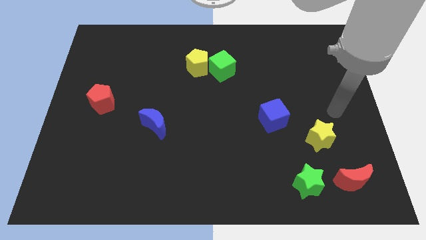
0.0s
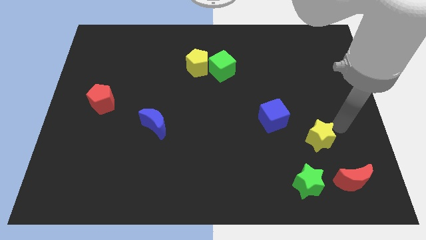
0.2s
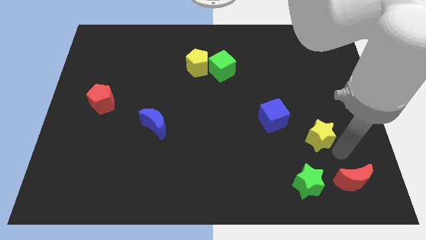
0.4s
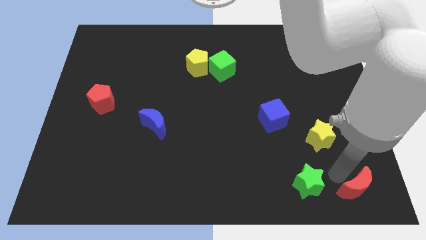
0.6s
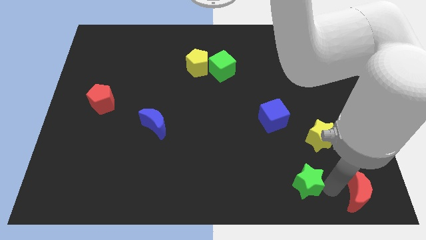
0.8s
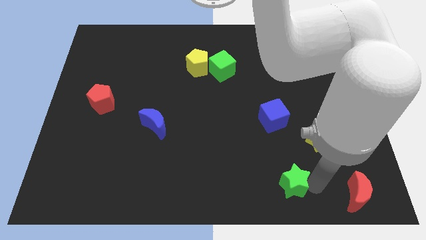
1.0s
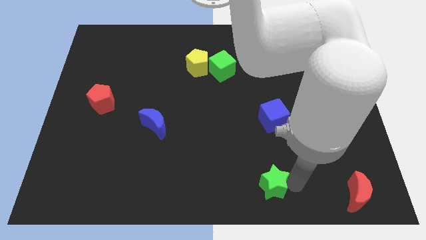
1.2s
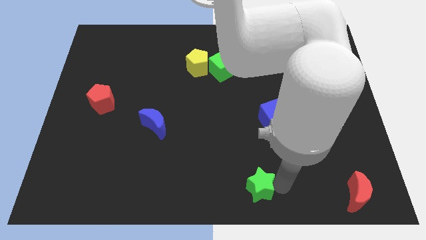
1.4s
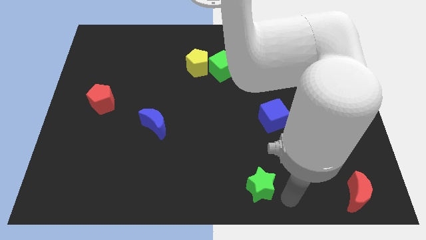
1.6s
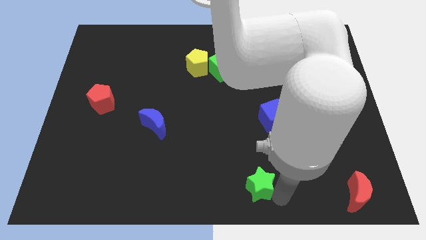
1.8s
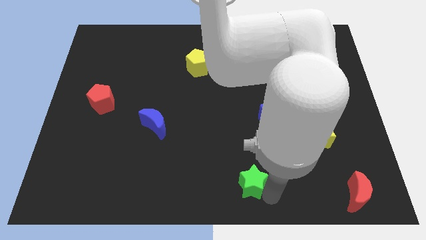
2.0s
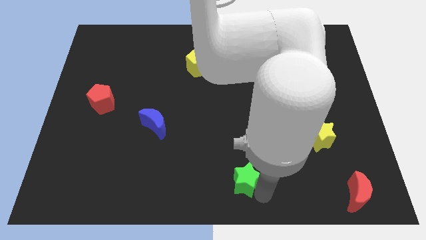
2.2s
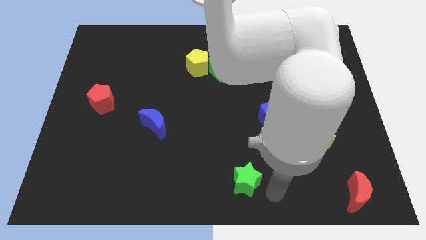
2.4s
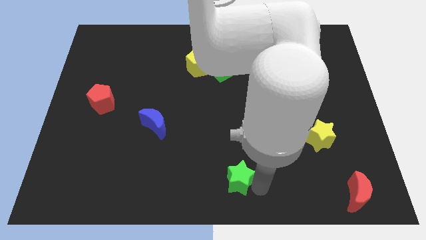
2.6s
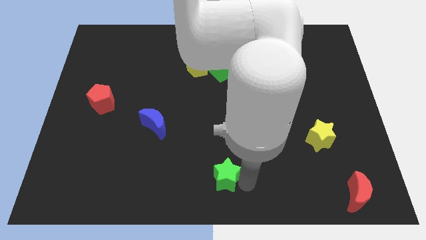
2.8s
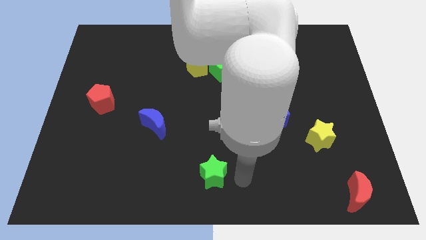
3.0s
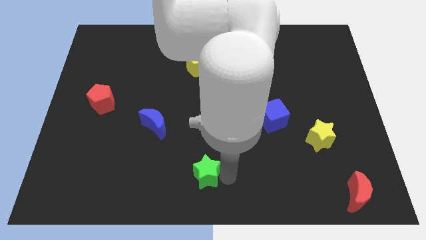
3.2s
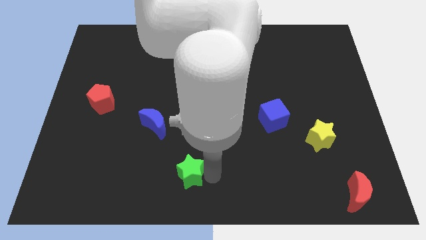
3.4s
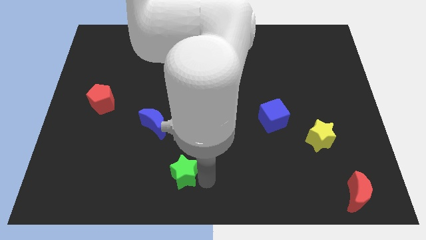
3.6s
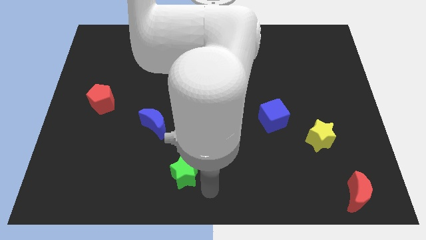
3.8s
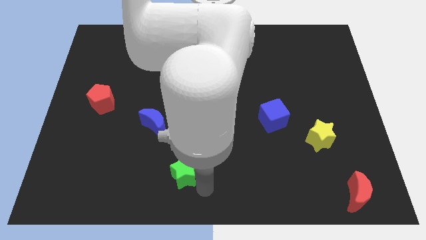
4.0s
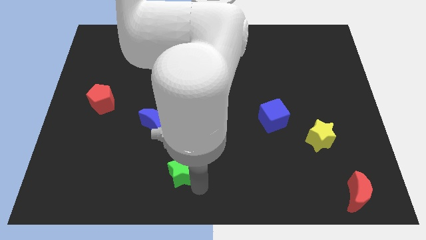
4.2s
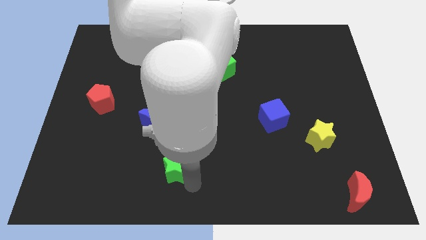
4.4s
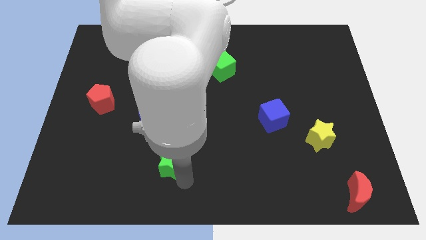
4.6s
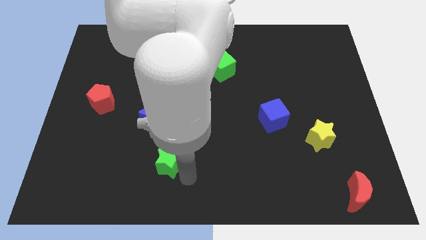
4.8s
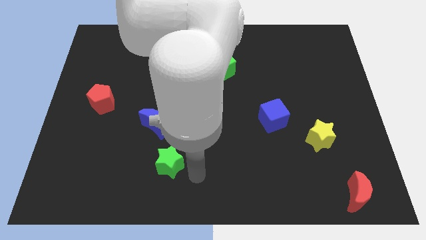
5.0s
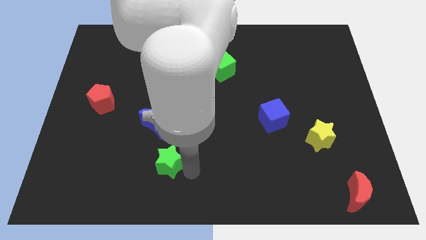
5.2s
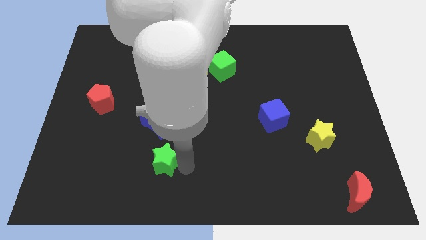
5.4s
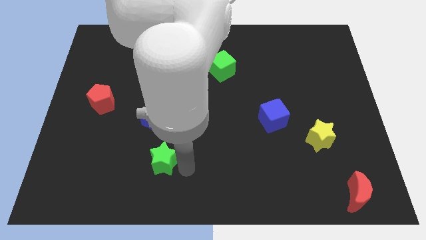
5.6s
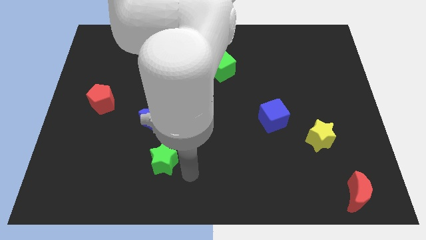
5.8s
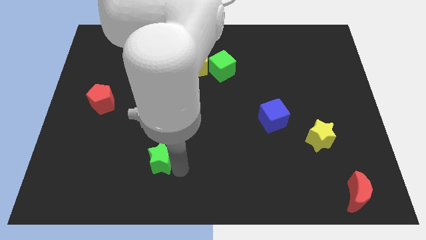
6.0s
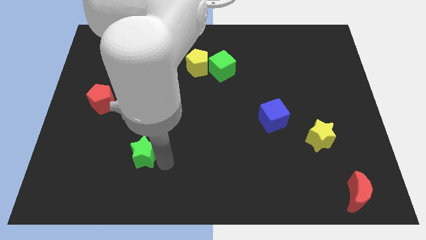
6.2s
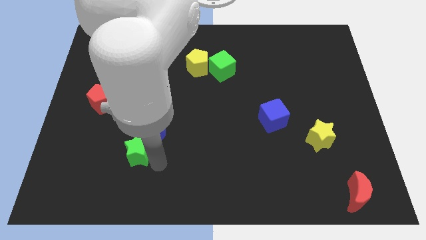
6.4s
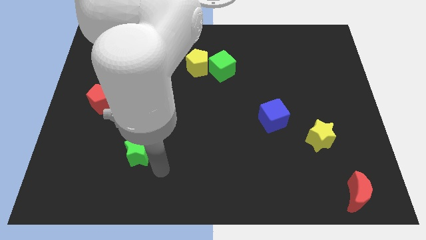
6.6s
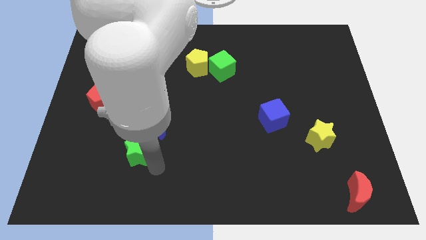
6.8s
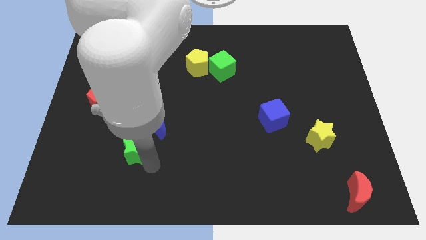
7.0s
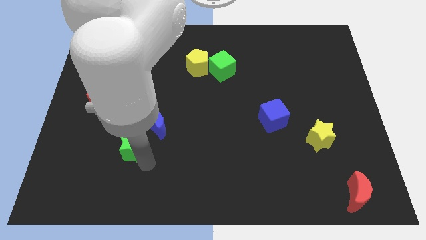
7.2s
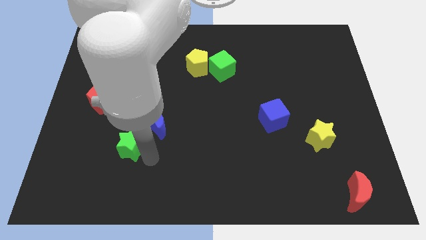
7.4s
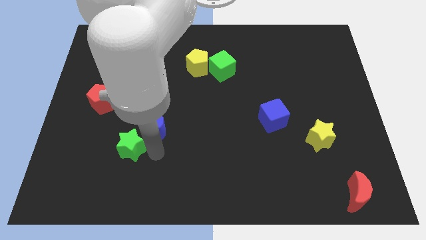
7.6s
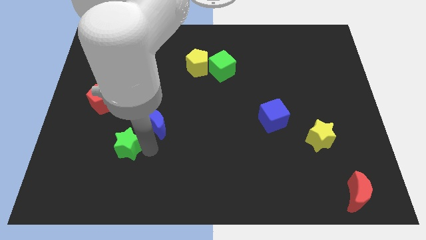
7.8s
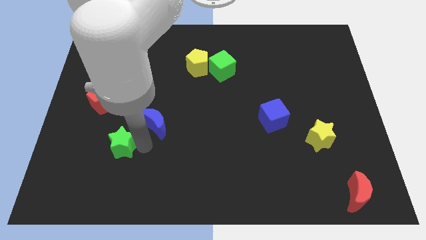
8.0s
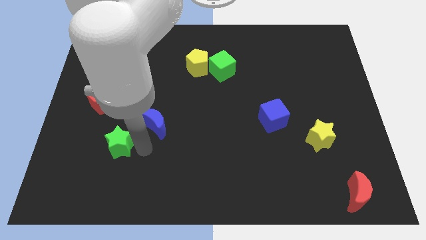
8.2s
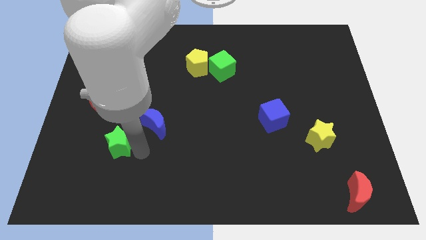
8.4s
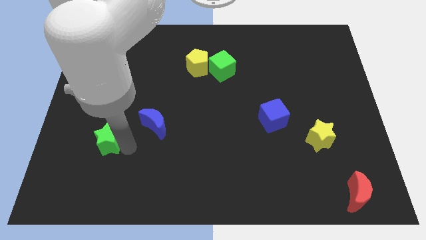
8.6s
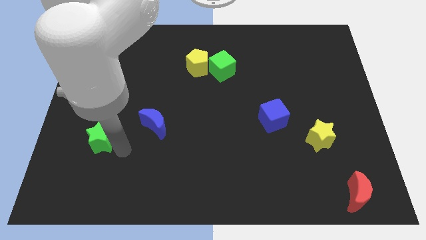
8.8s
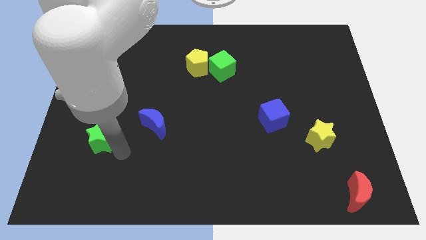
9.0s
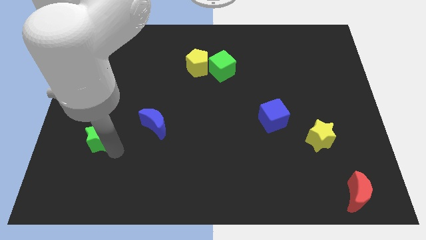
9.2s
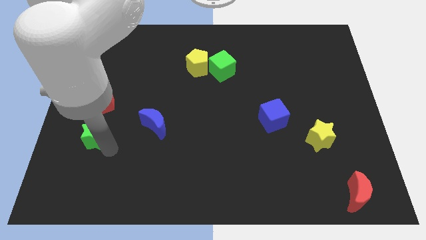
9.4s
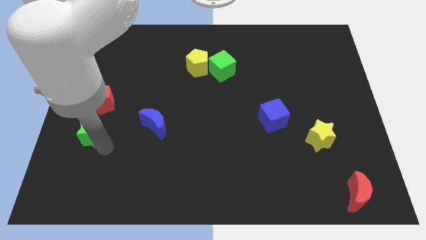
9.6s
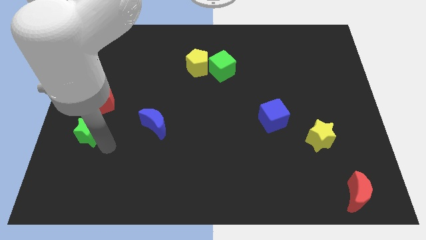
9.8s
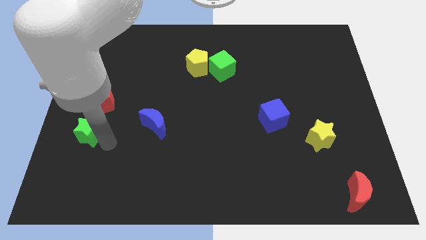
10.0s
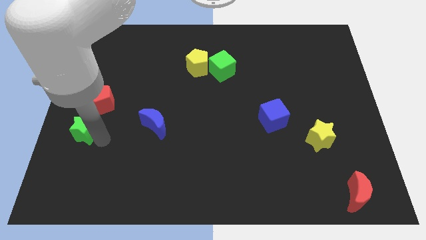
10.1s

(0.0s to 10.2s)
move the green star to the center left

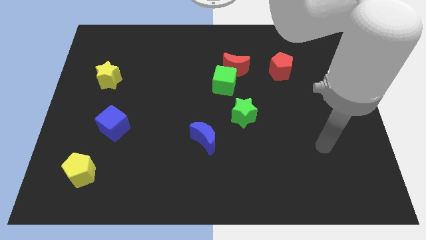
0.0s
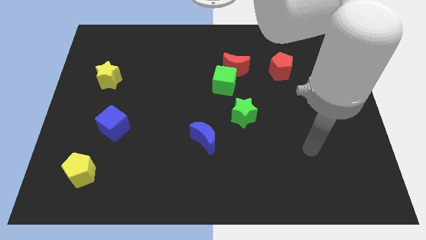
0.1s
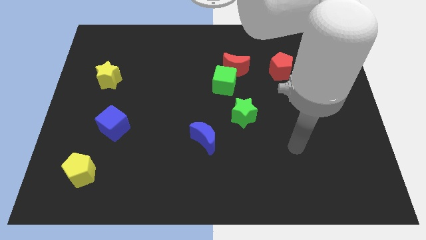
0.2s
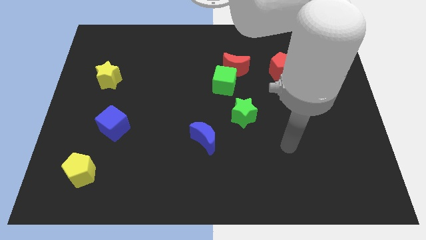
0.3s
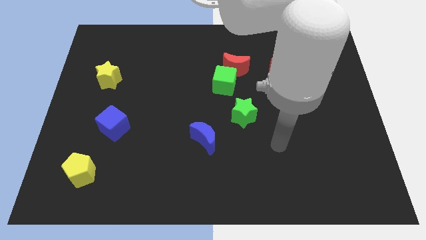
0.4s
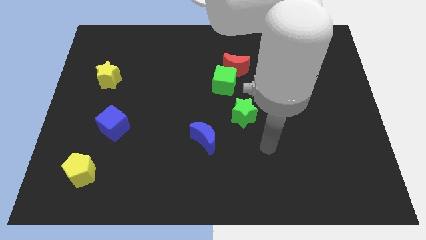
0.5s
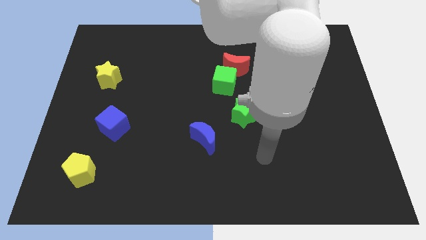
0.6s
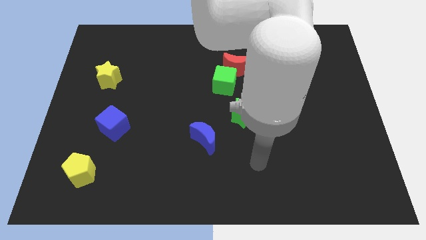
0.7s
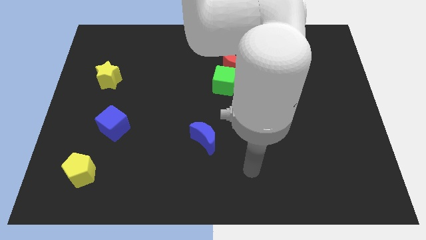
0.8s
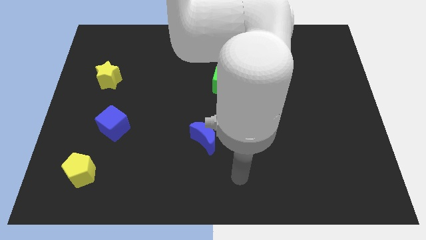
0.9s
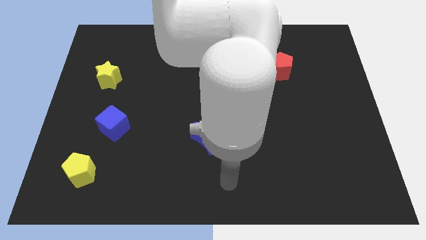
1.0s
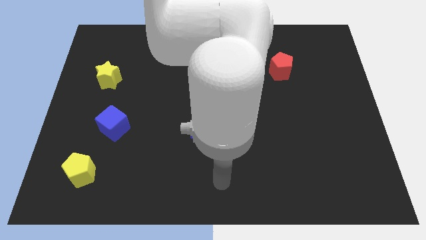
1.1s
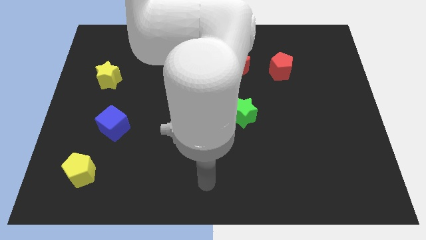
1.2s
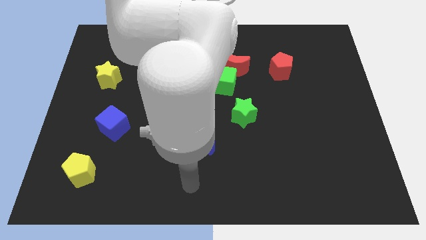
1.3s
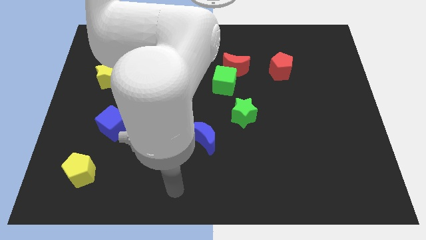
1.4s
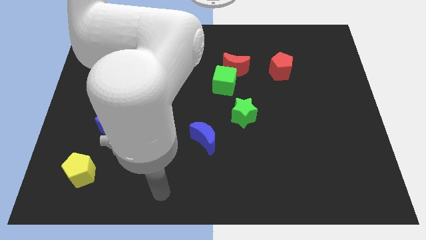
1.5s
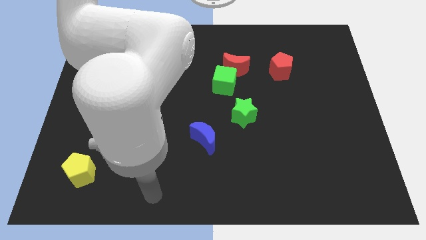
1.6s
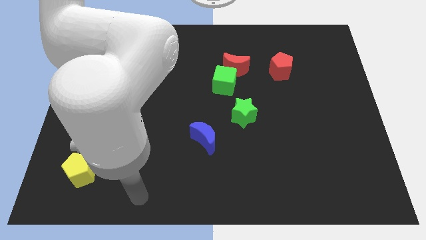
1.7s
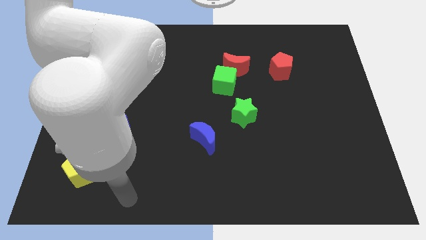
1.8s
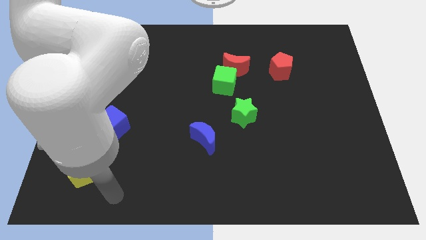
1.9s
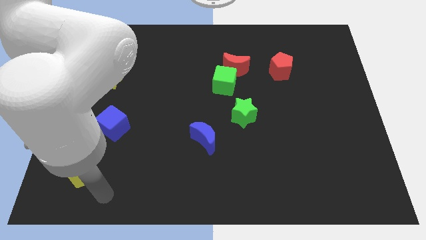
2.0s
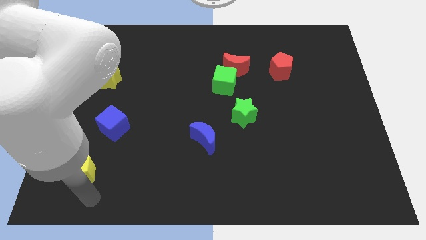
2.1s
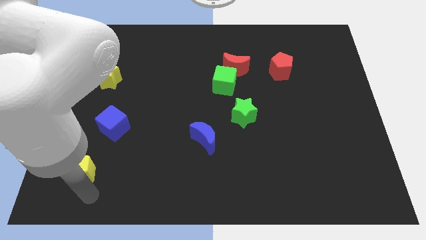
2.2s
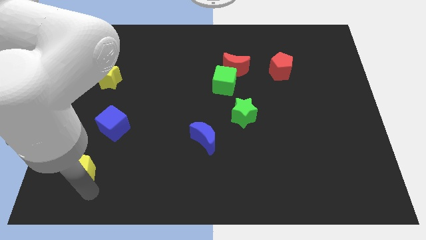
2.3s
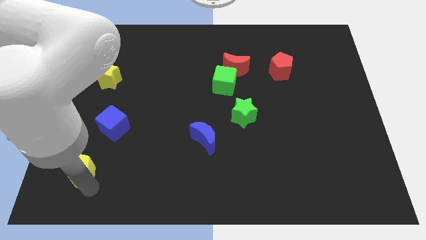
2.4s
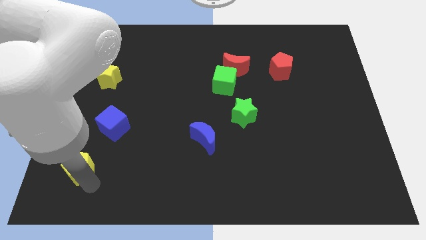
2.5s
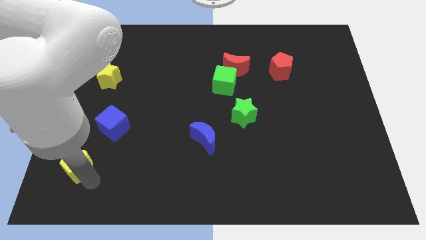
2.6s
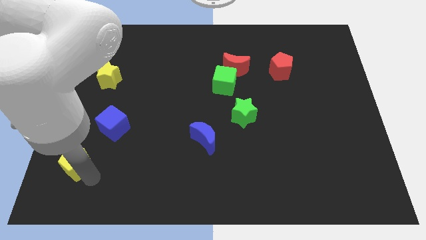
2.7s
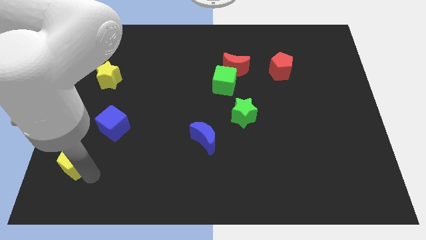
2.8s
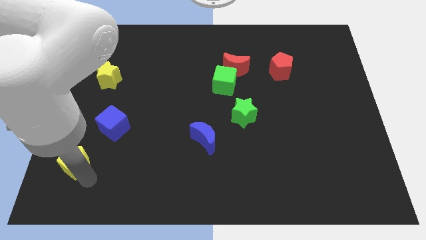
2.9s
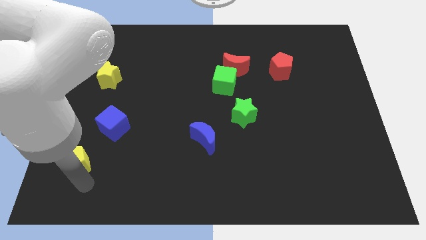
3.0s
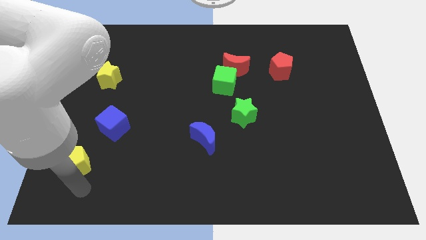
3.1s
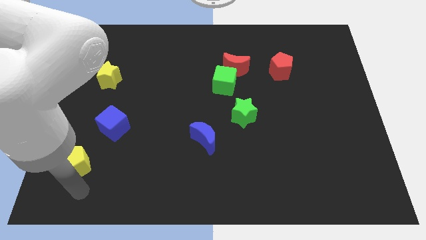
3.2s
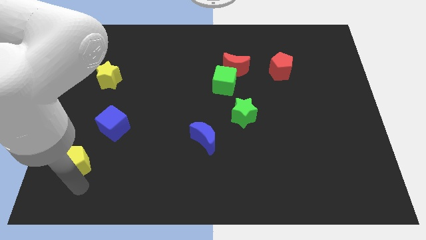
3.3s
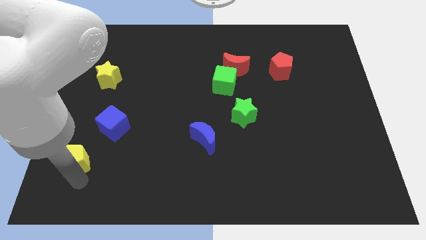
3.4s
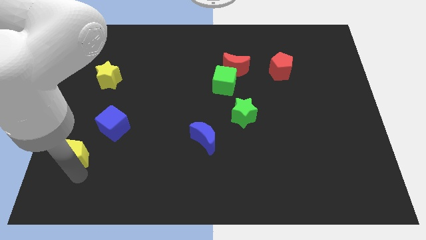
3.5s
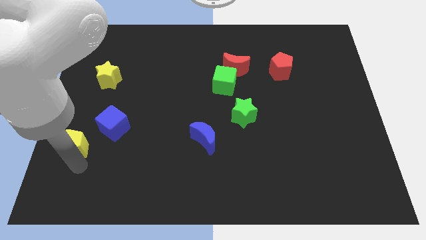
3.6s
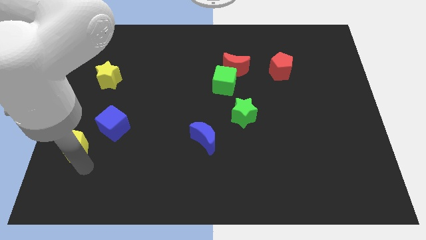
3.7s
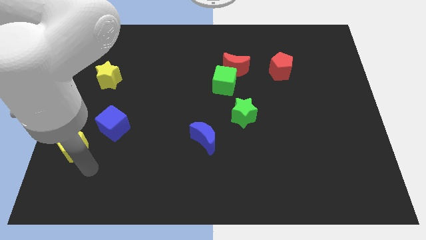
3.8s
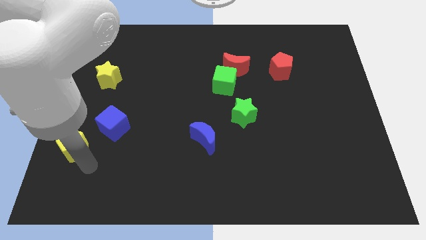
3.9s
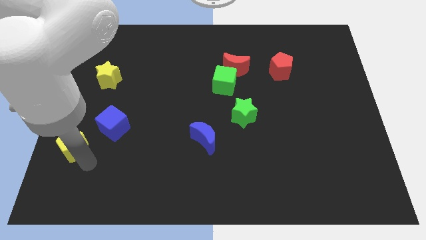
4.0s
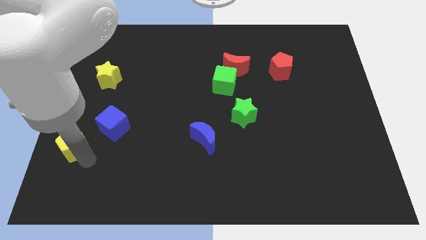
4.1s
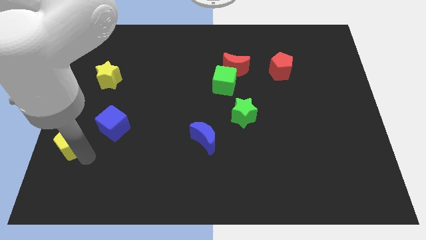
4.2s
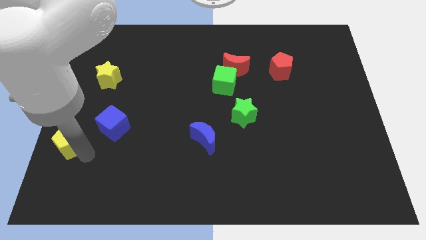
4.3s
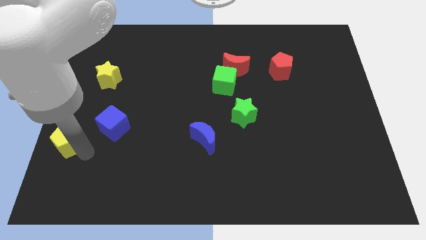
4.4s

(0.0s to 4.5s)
push the yellow pentagon to the left side
